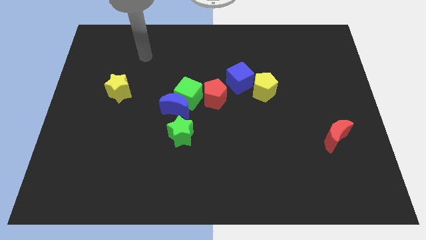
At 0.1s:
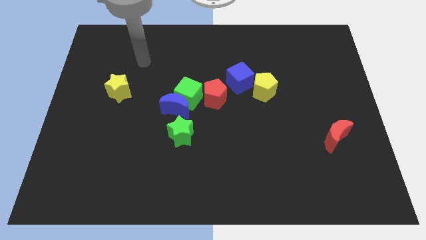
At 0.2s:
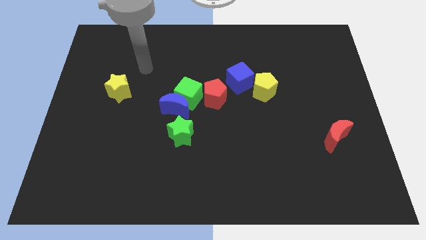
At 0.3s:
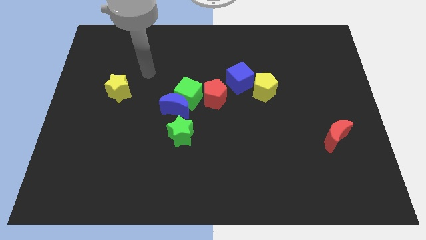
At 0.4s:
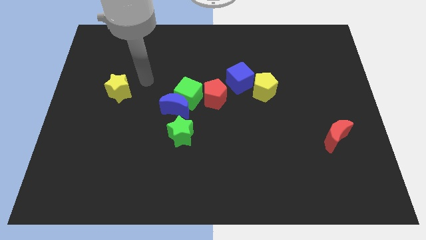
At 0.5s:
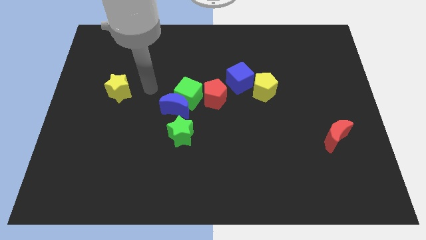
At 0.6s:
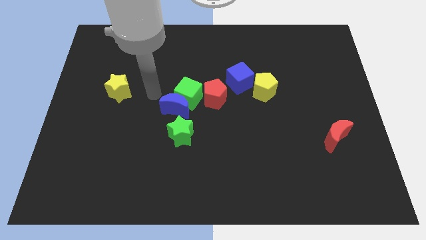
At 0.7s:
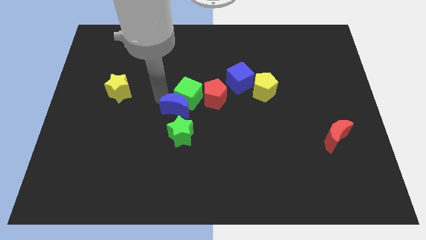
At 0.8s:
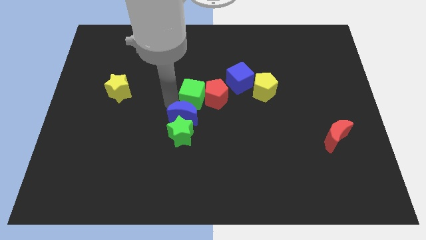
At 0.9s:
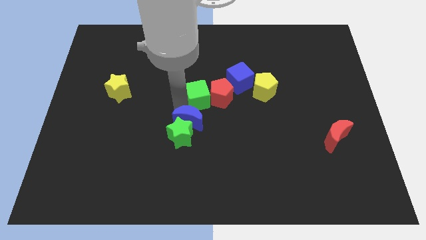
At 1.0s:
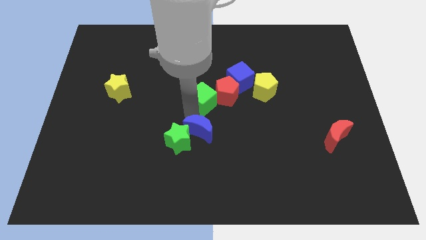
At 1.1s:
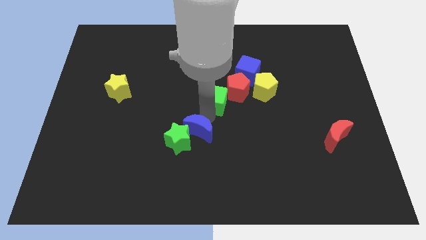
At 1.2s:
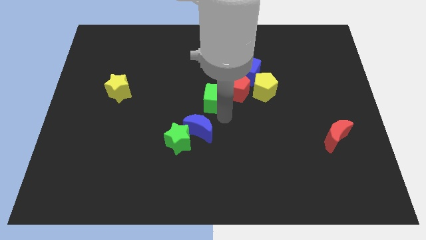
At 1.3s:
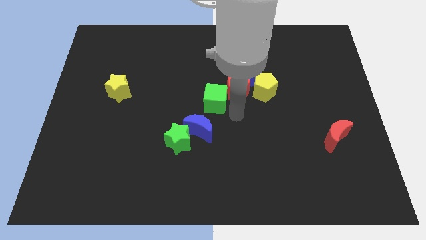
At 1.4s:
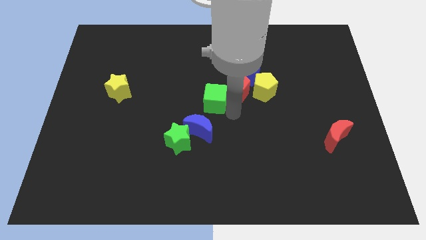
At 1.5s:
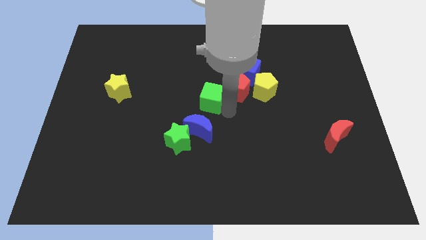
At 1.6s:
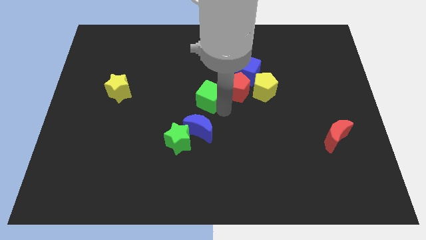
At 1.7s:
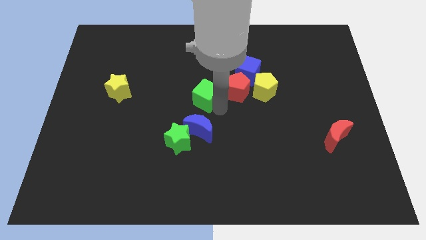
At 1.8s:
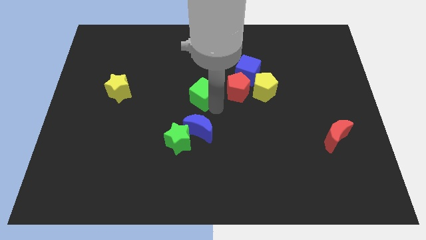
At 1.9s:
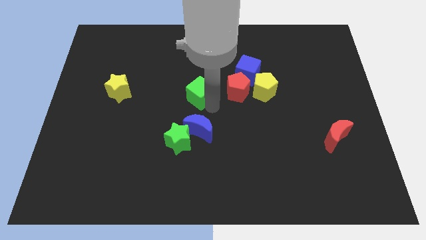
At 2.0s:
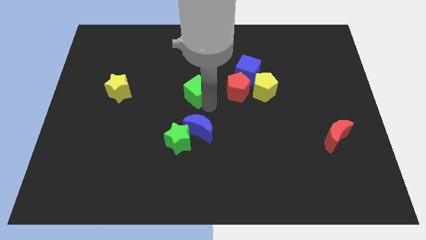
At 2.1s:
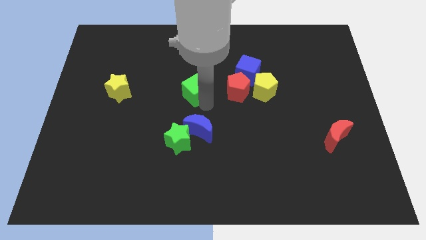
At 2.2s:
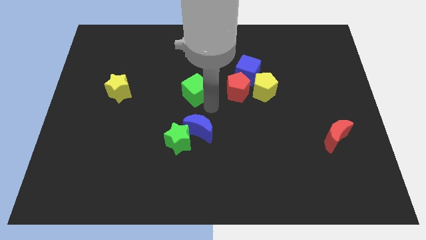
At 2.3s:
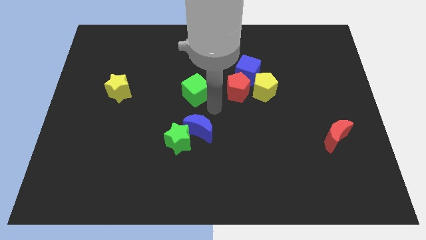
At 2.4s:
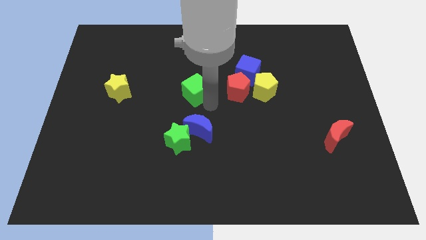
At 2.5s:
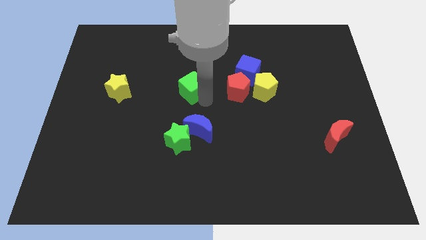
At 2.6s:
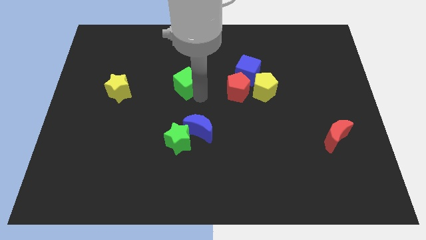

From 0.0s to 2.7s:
move the green cube away from the blue moon and red pentagon

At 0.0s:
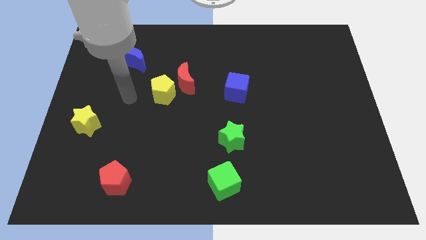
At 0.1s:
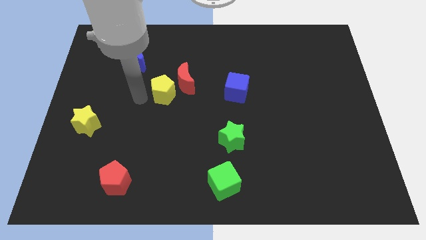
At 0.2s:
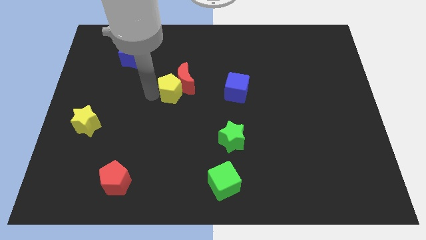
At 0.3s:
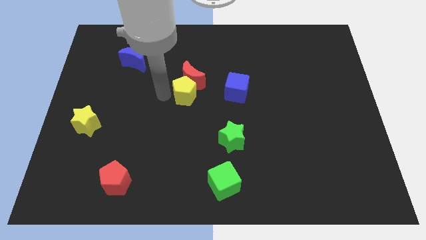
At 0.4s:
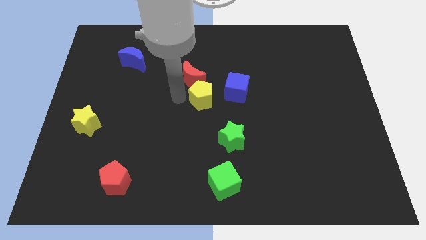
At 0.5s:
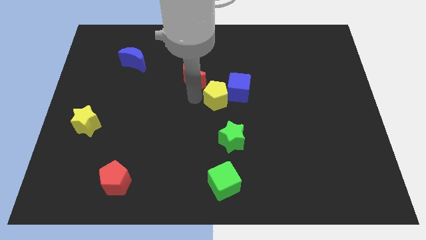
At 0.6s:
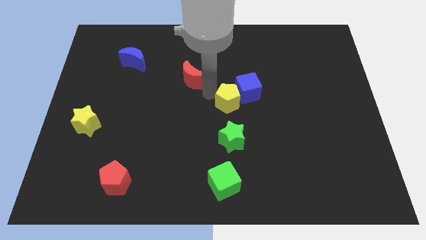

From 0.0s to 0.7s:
move the red moon away from the yellow pentagon

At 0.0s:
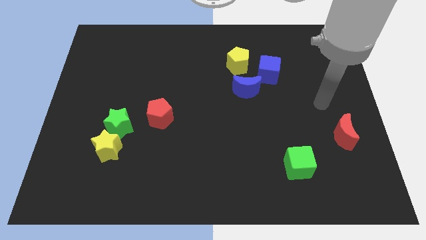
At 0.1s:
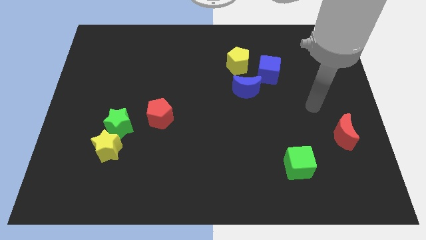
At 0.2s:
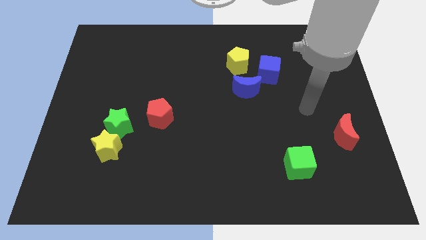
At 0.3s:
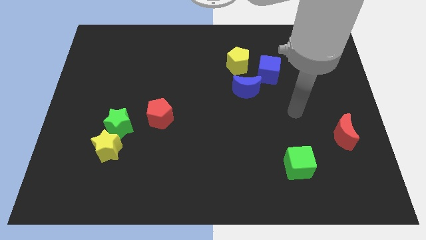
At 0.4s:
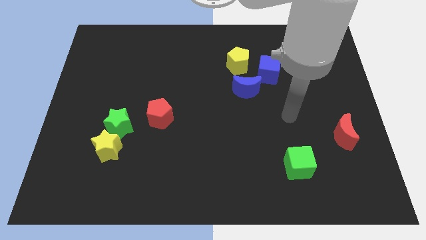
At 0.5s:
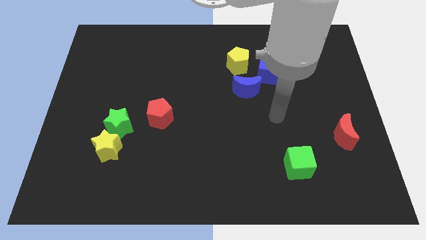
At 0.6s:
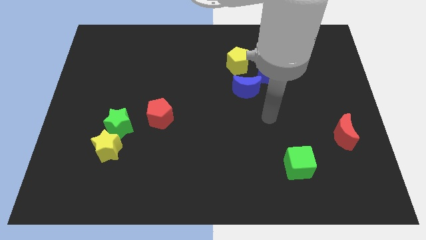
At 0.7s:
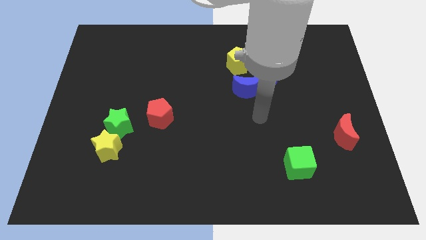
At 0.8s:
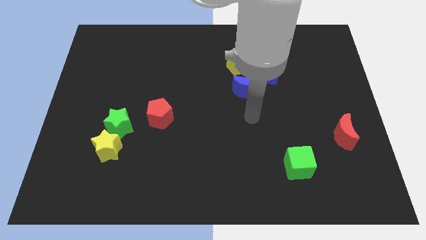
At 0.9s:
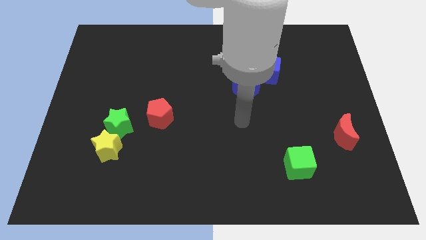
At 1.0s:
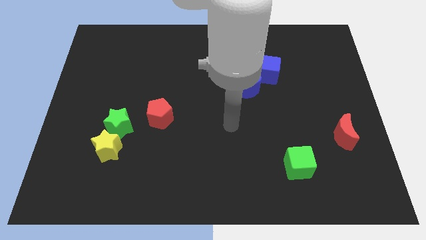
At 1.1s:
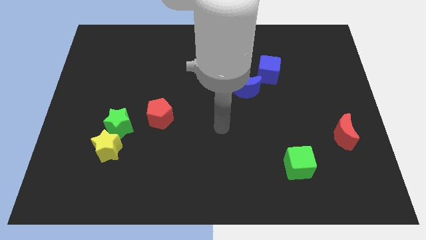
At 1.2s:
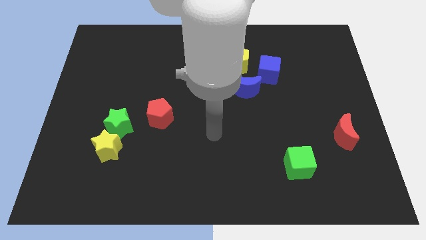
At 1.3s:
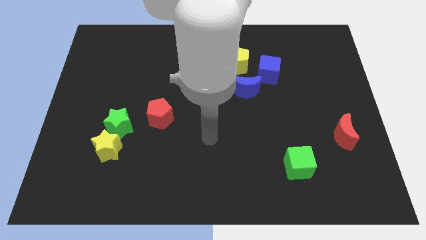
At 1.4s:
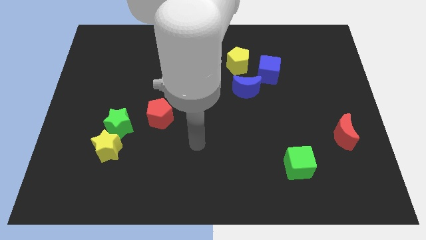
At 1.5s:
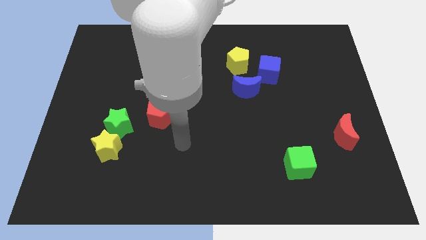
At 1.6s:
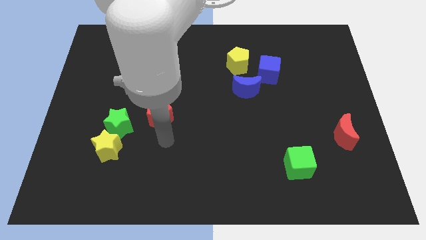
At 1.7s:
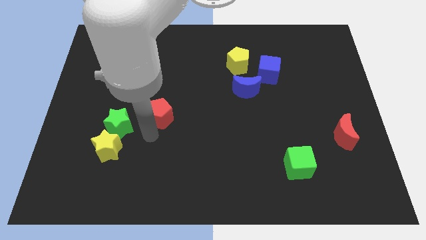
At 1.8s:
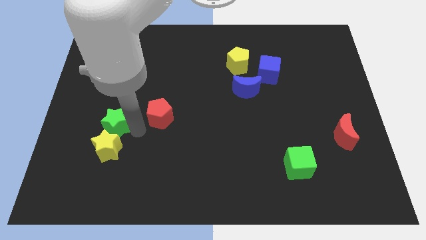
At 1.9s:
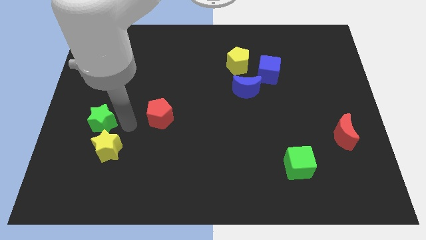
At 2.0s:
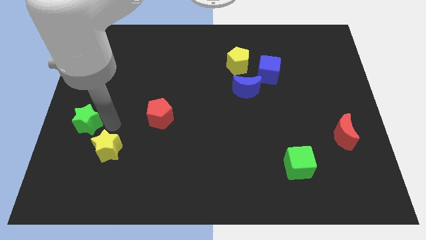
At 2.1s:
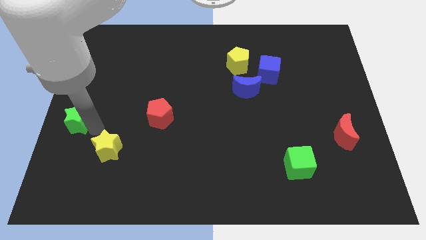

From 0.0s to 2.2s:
pull the yellow star apart from the green star

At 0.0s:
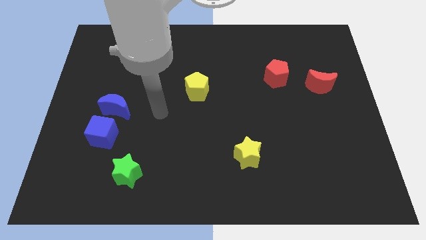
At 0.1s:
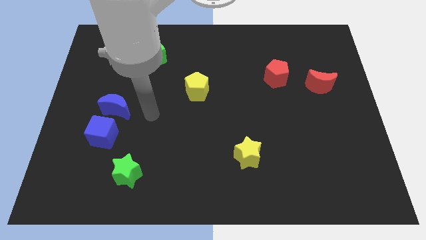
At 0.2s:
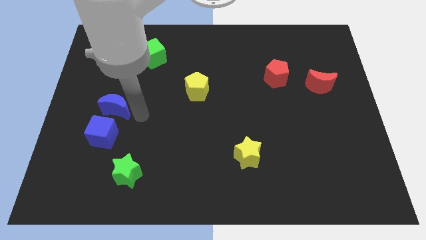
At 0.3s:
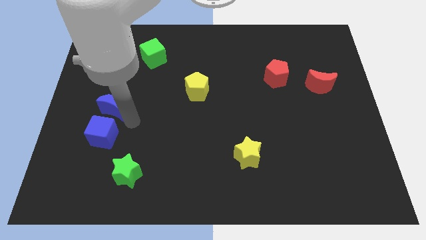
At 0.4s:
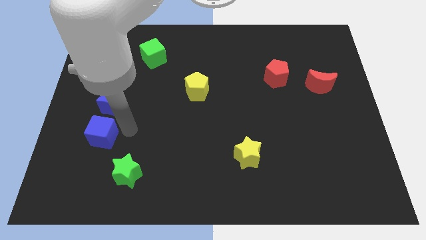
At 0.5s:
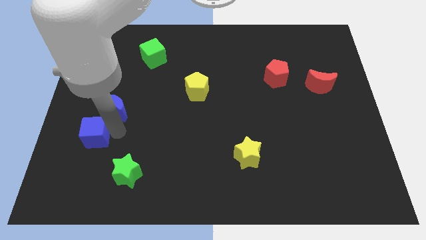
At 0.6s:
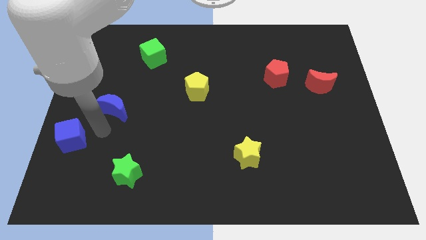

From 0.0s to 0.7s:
separate the blue moon from the blue cube

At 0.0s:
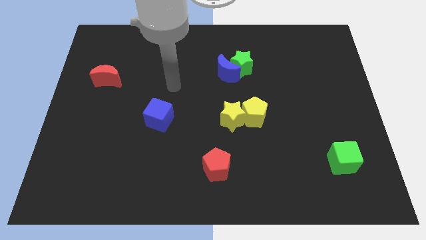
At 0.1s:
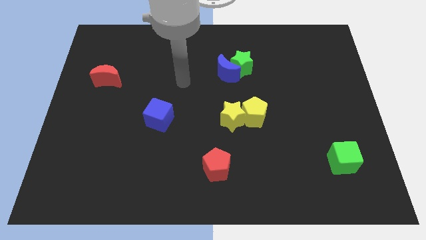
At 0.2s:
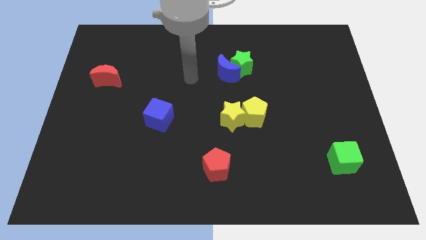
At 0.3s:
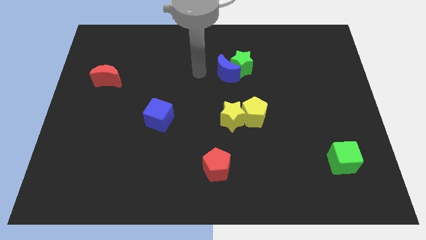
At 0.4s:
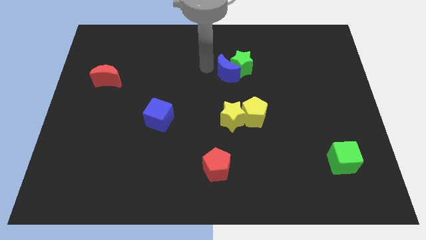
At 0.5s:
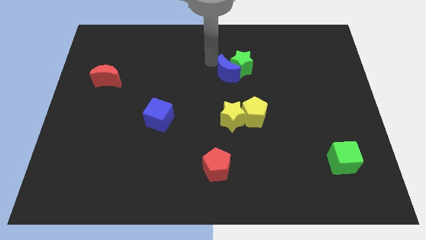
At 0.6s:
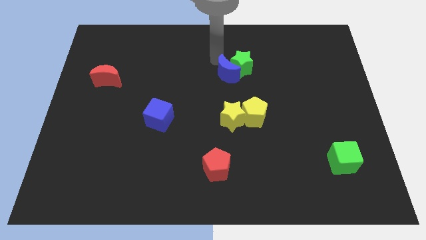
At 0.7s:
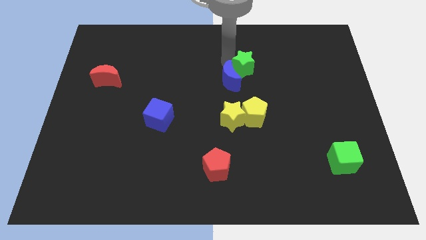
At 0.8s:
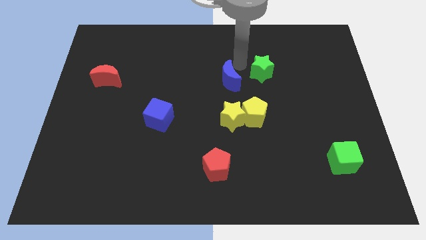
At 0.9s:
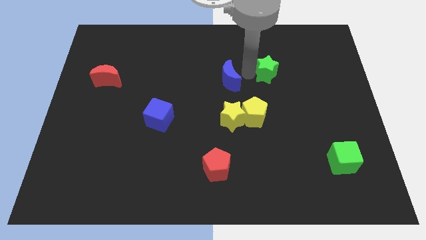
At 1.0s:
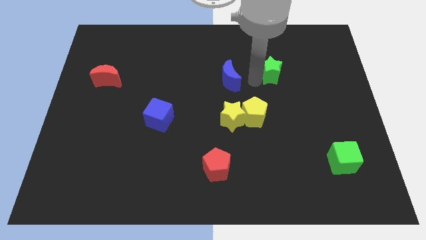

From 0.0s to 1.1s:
pull the blue moon apart from the green star

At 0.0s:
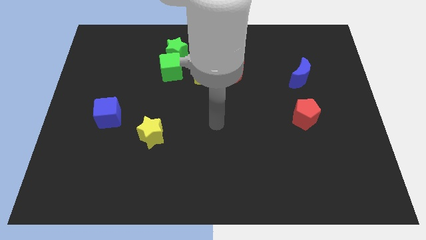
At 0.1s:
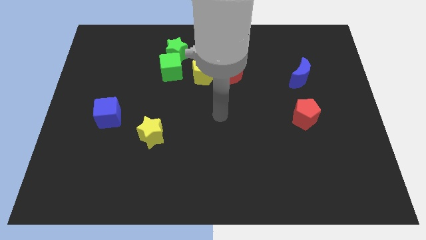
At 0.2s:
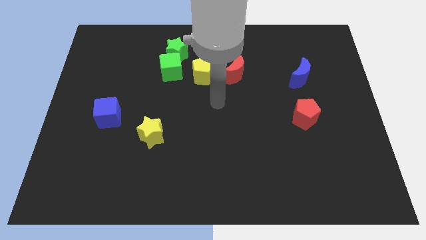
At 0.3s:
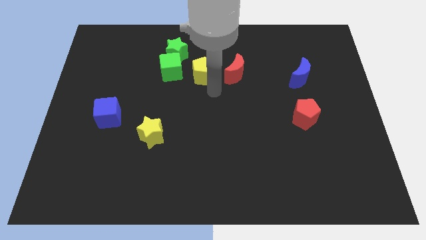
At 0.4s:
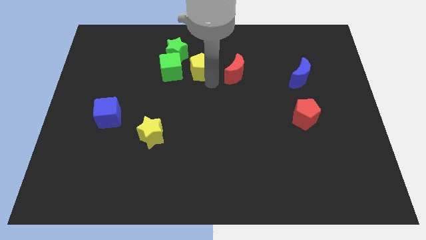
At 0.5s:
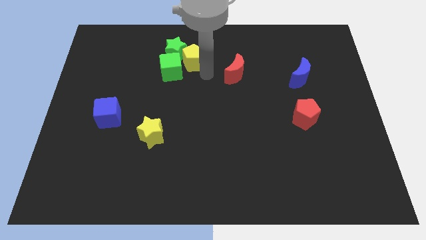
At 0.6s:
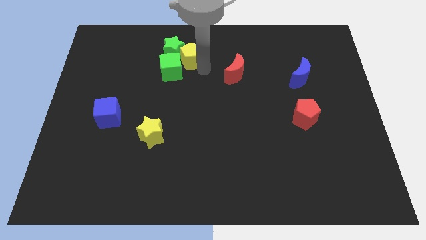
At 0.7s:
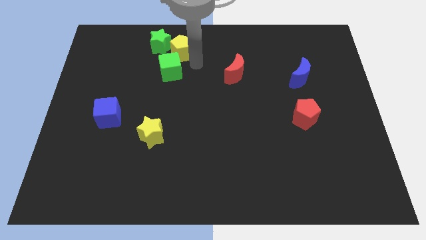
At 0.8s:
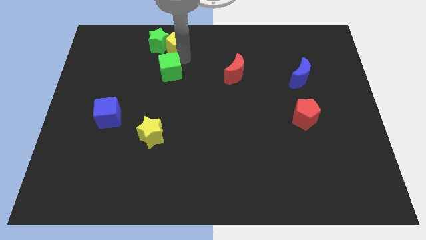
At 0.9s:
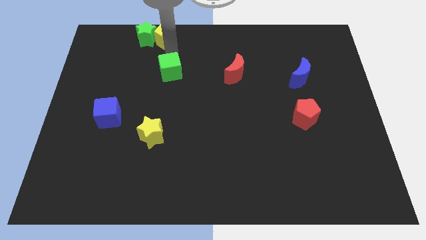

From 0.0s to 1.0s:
move the green cube away from the green star and yellow pentagon

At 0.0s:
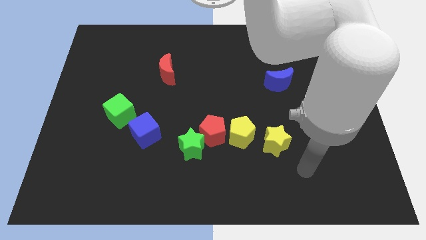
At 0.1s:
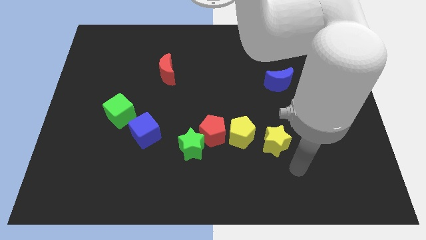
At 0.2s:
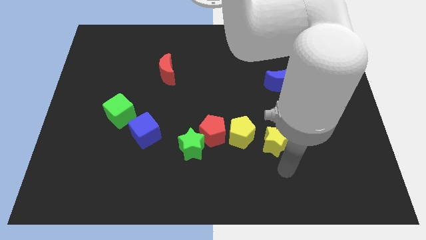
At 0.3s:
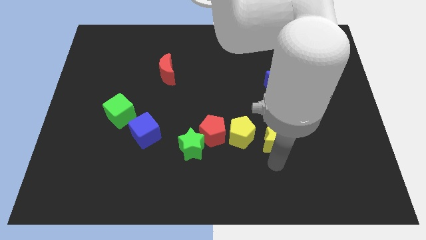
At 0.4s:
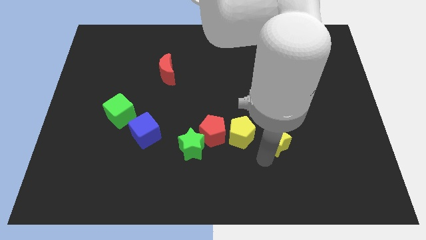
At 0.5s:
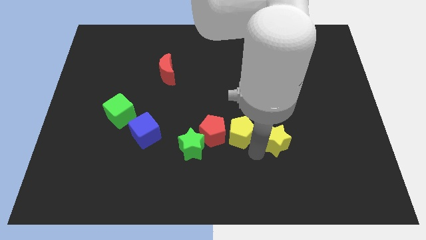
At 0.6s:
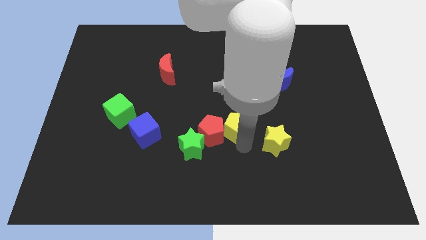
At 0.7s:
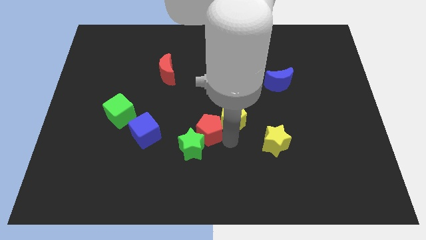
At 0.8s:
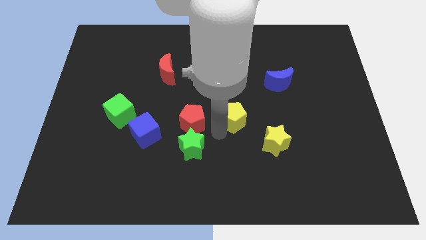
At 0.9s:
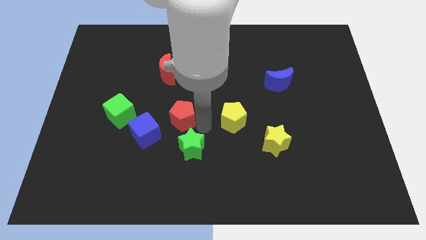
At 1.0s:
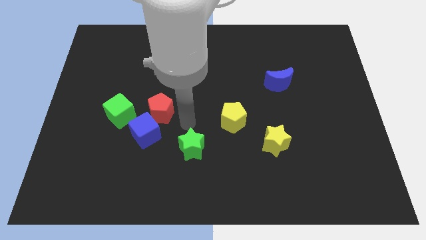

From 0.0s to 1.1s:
pull the green star apart from the red pentagon

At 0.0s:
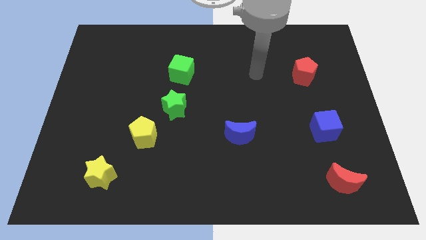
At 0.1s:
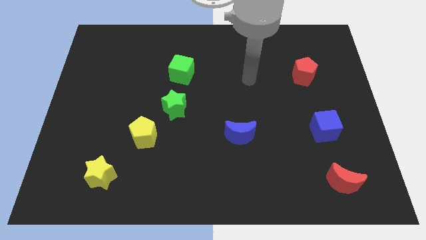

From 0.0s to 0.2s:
move the green star away from the yellow pentagon
